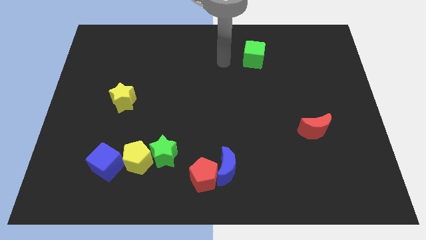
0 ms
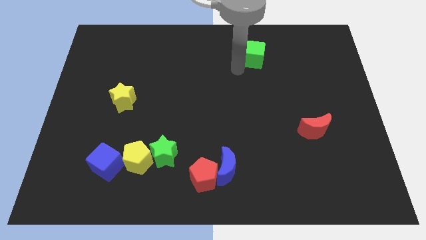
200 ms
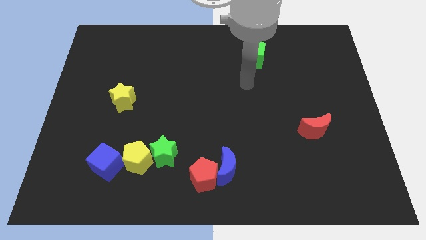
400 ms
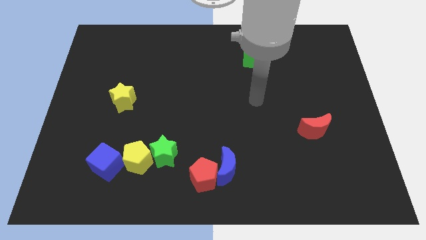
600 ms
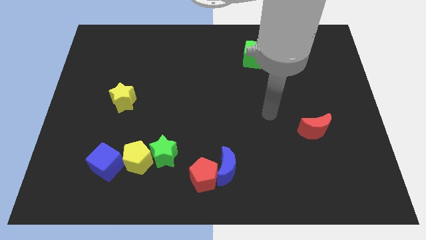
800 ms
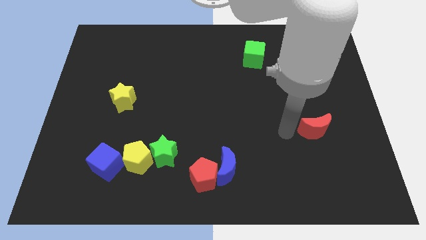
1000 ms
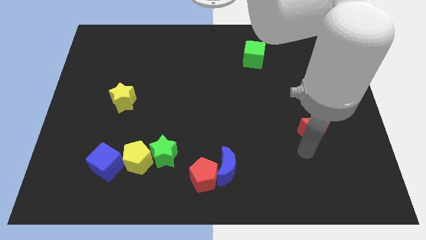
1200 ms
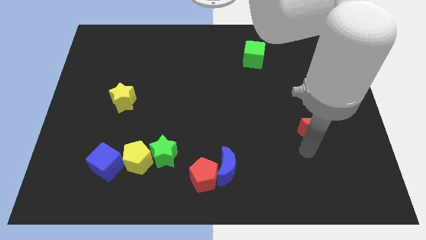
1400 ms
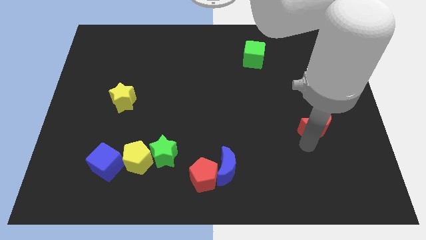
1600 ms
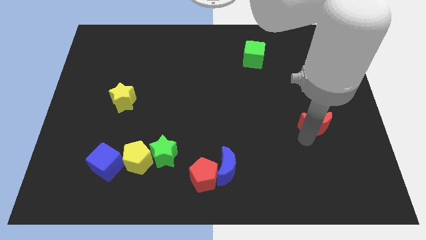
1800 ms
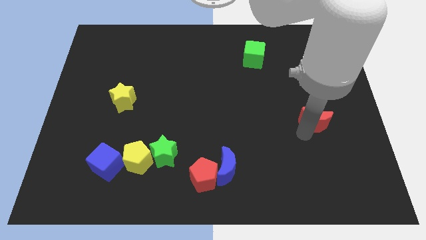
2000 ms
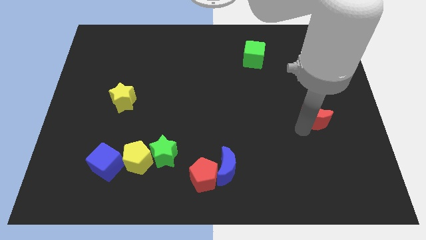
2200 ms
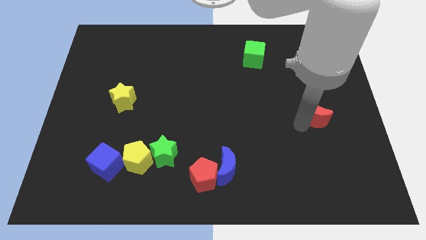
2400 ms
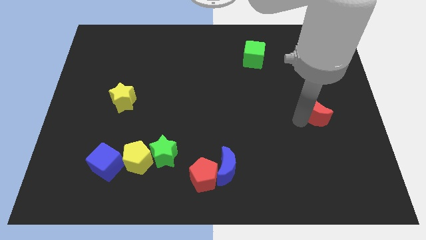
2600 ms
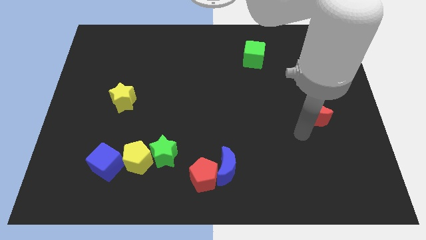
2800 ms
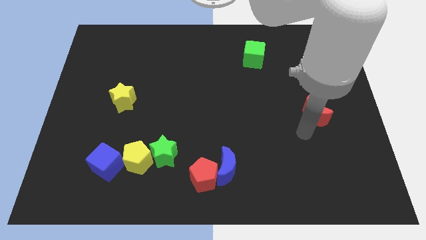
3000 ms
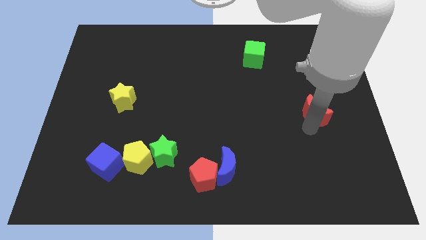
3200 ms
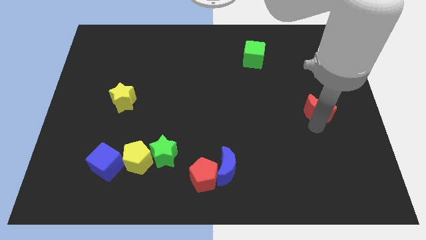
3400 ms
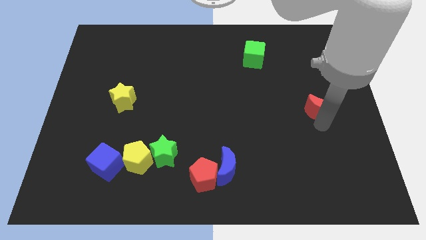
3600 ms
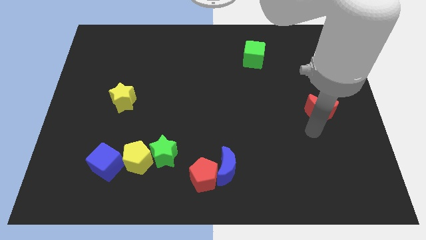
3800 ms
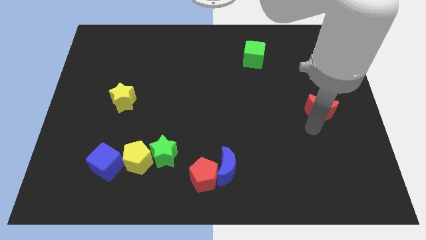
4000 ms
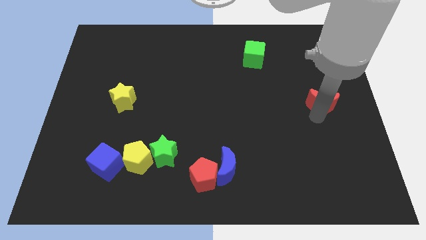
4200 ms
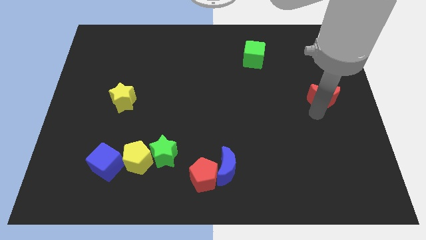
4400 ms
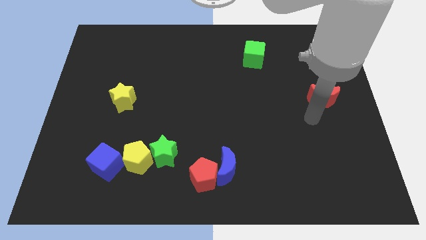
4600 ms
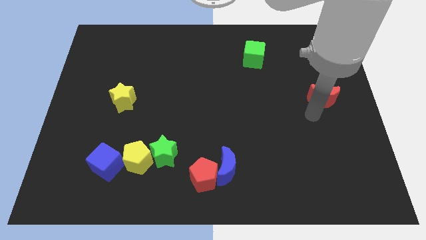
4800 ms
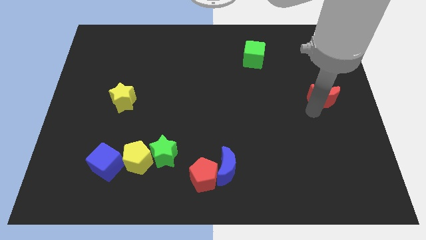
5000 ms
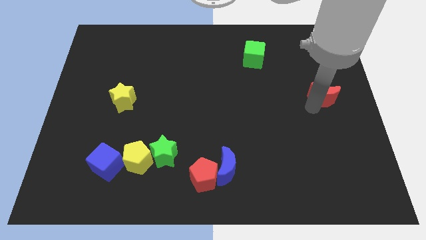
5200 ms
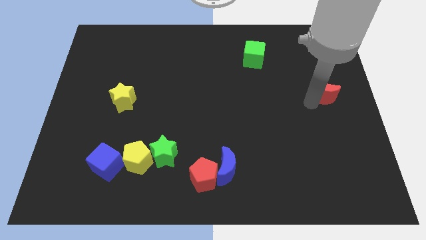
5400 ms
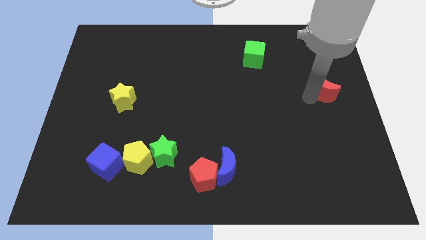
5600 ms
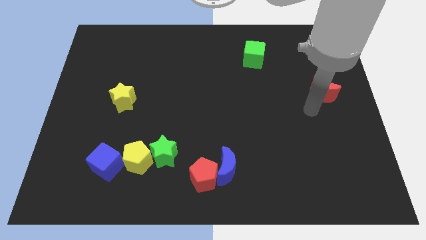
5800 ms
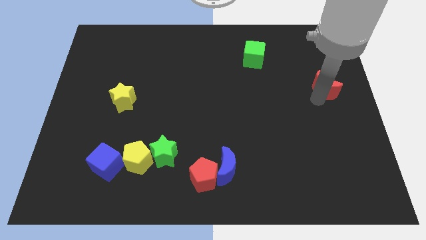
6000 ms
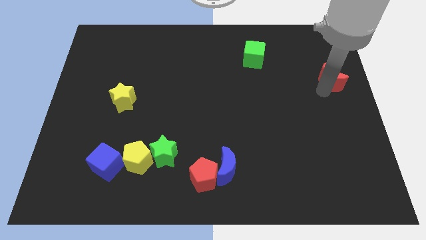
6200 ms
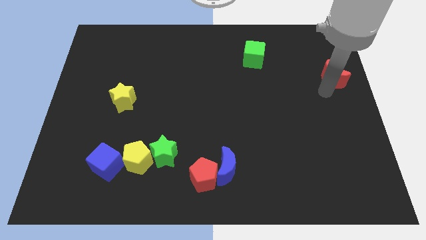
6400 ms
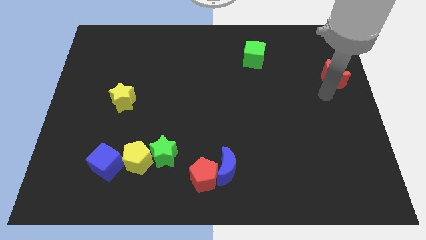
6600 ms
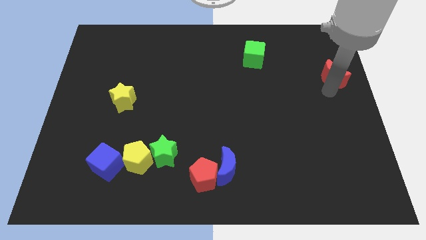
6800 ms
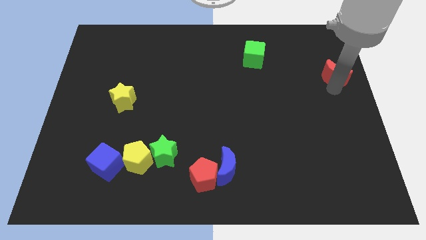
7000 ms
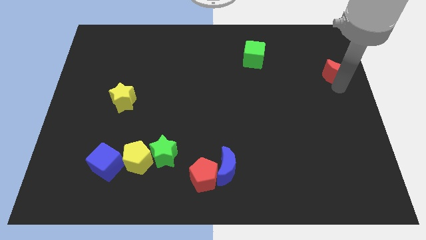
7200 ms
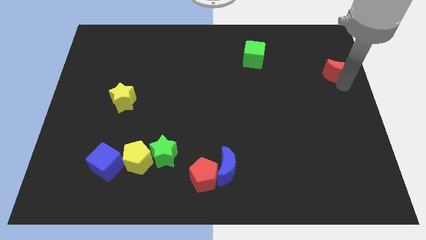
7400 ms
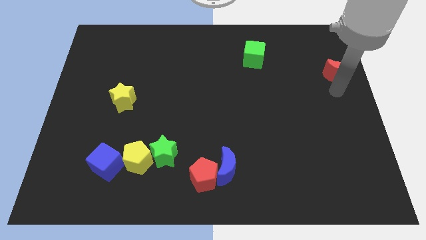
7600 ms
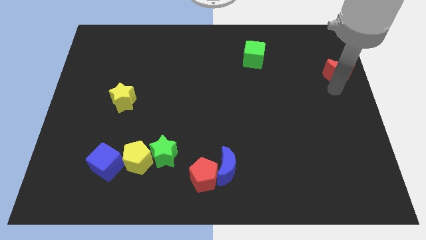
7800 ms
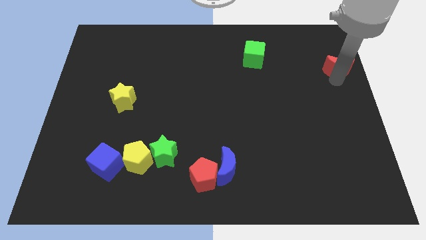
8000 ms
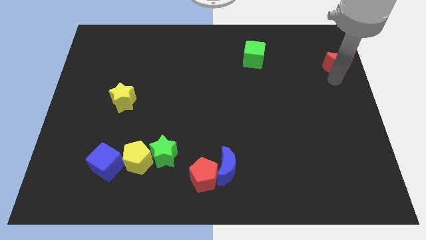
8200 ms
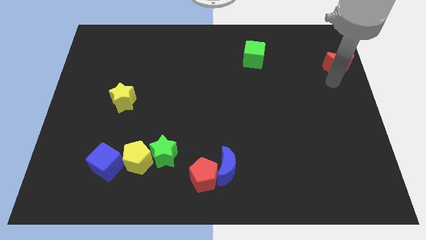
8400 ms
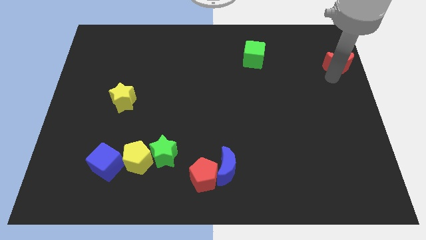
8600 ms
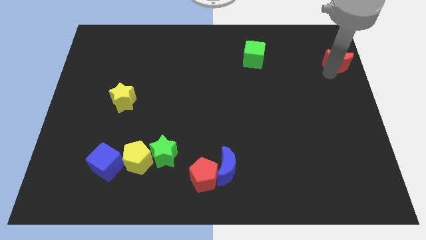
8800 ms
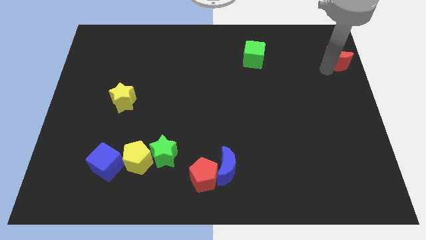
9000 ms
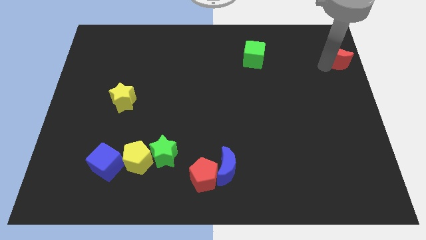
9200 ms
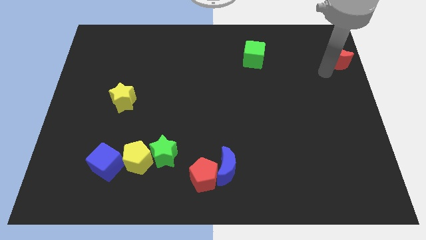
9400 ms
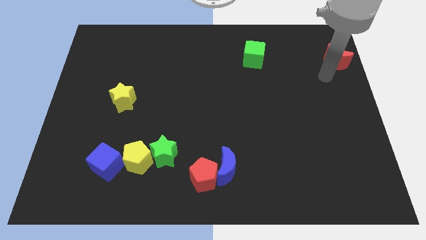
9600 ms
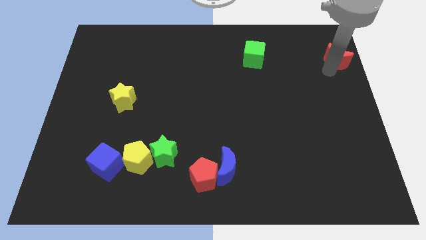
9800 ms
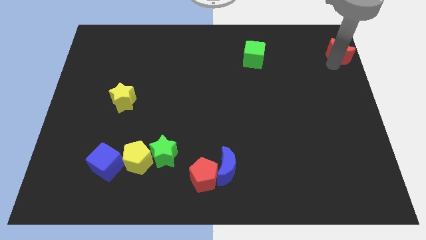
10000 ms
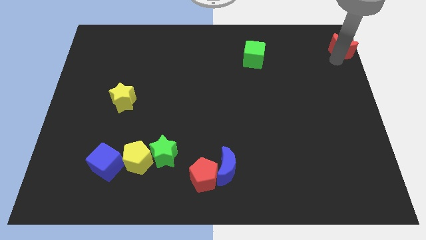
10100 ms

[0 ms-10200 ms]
push the red moon to the upper right corner

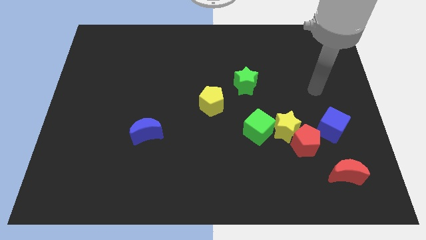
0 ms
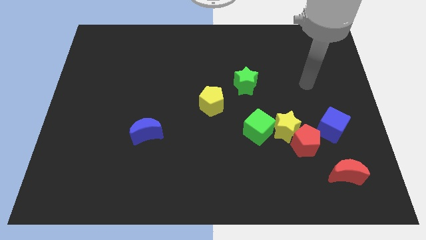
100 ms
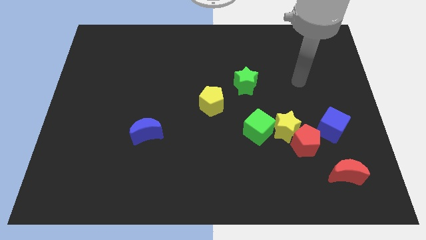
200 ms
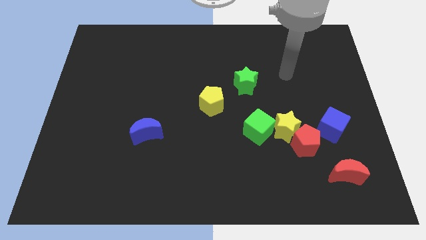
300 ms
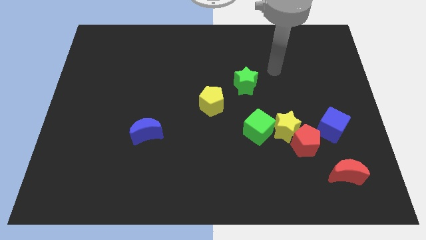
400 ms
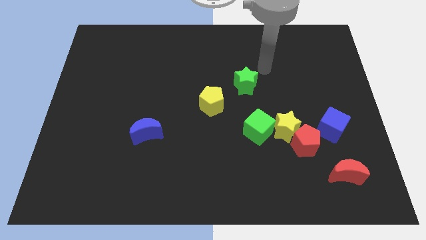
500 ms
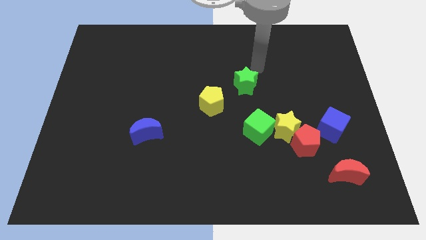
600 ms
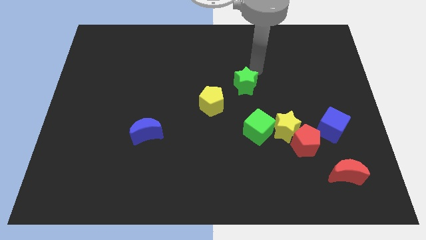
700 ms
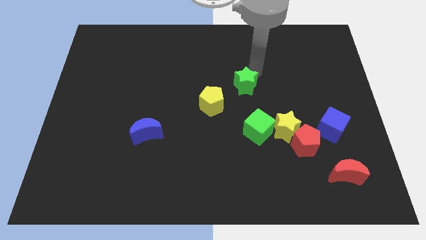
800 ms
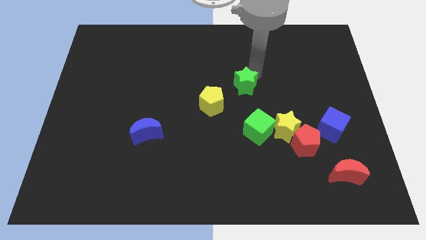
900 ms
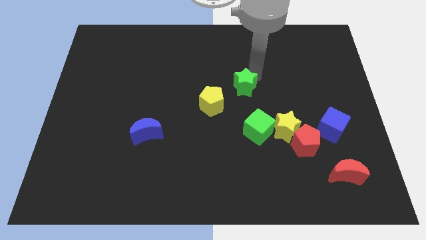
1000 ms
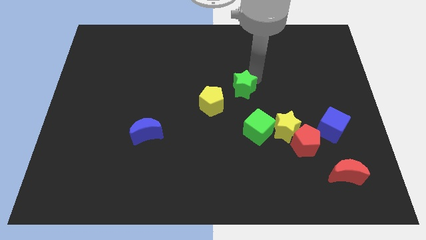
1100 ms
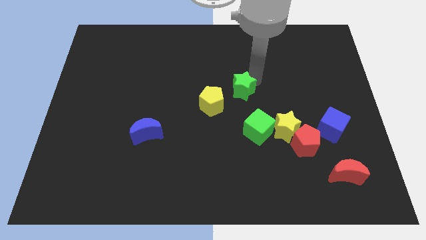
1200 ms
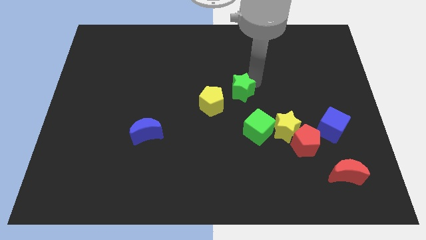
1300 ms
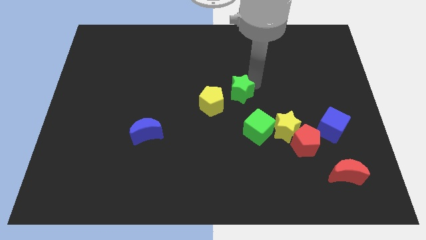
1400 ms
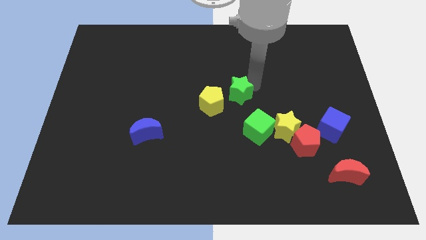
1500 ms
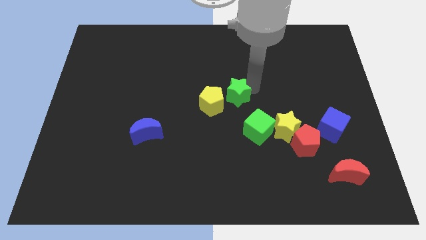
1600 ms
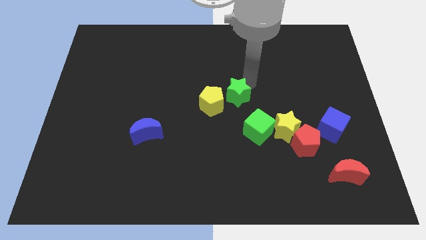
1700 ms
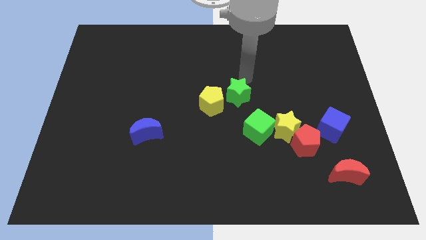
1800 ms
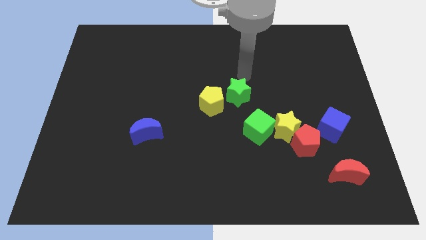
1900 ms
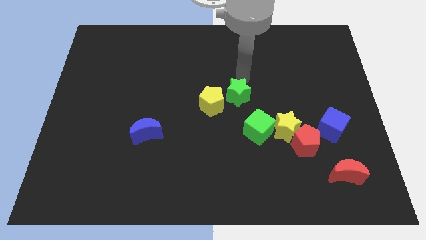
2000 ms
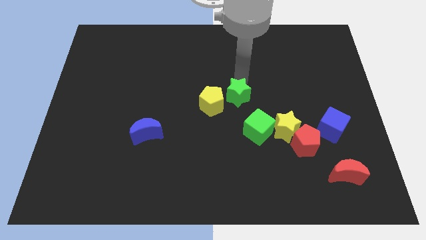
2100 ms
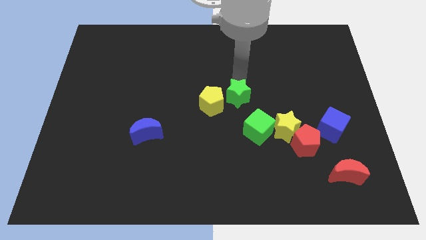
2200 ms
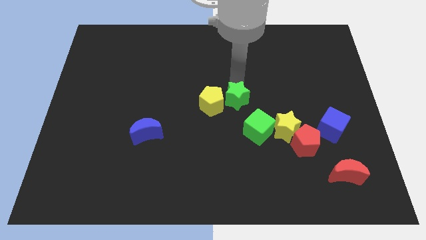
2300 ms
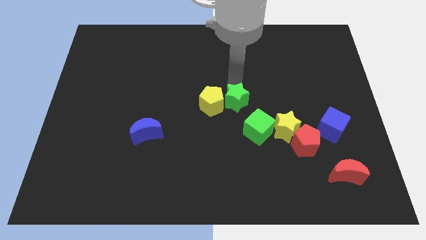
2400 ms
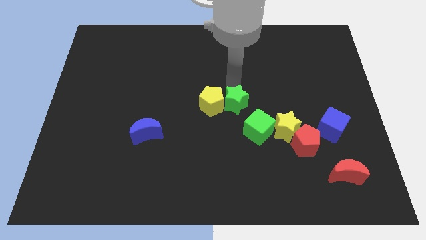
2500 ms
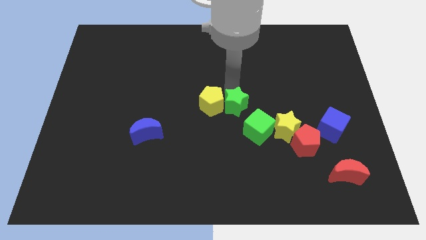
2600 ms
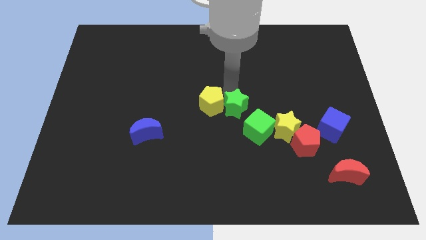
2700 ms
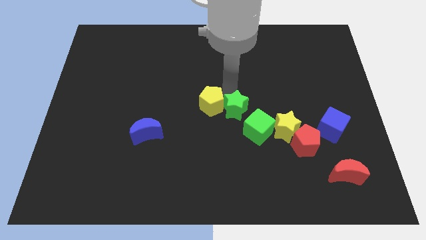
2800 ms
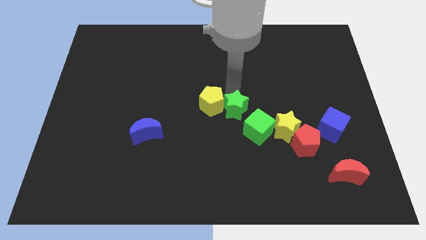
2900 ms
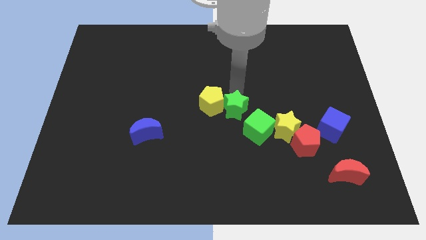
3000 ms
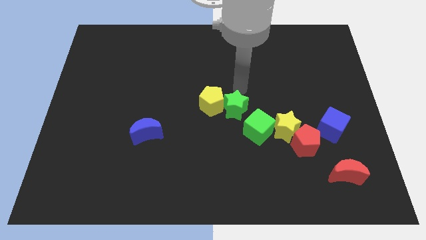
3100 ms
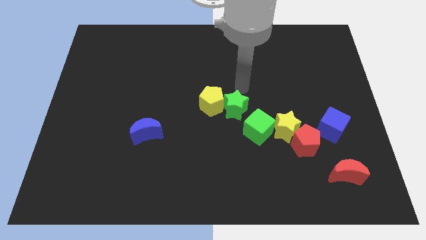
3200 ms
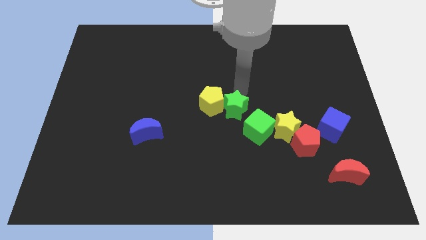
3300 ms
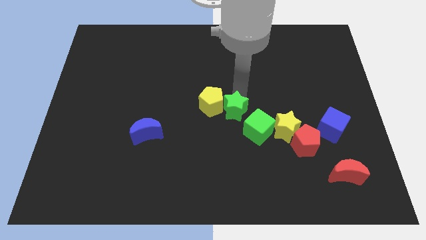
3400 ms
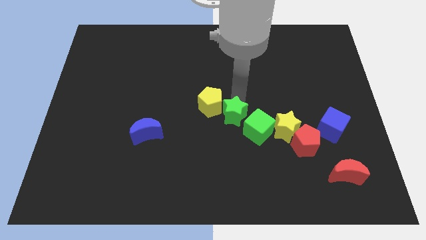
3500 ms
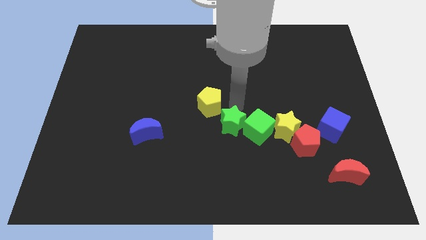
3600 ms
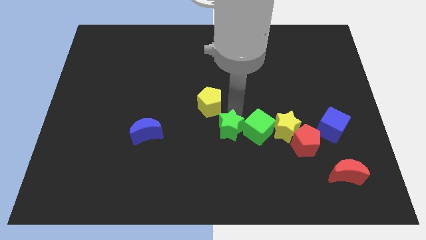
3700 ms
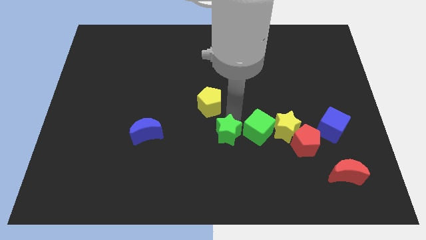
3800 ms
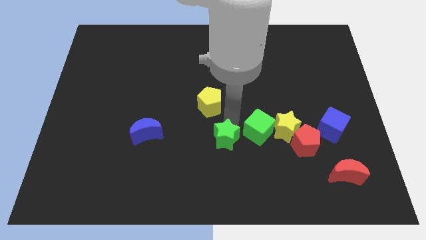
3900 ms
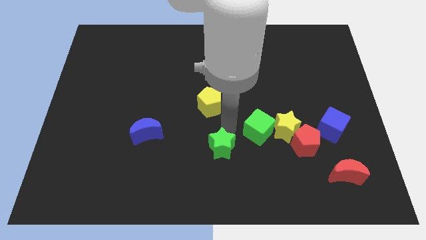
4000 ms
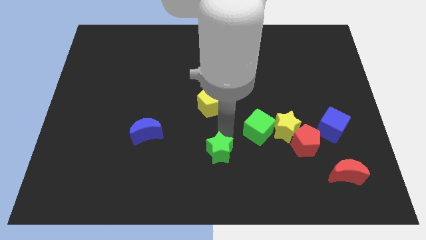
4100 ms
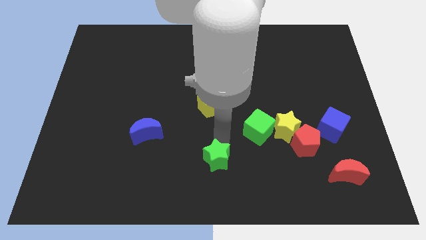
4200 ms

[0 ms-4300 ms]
push the green star to the bottom side
